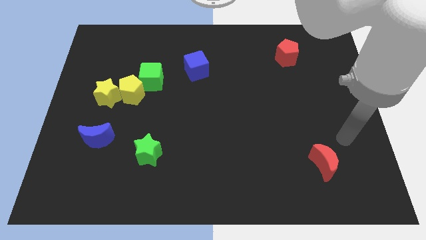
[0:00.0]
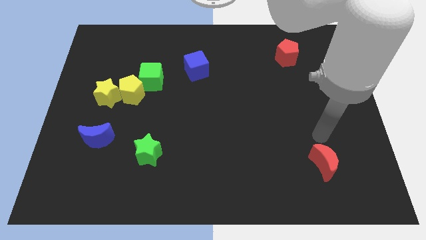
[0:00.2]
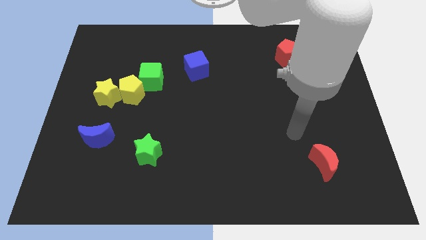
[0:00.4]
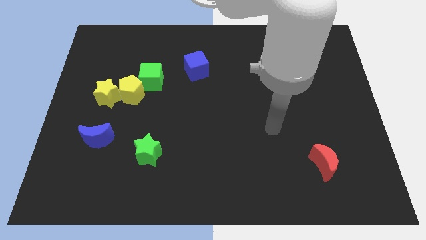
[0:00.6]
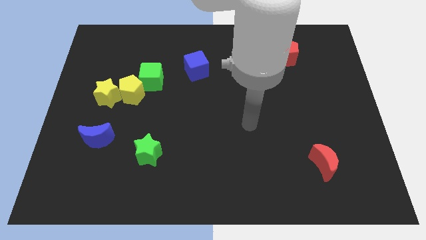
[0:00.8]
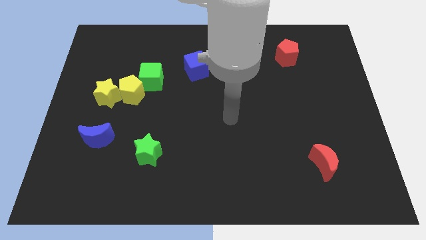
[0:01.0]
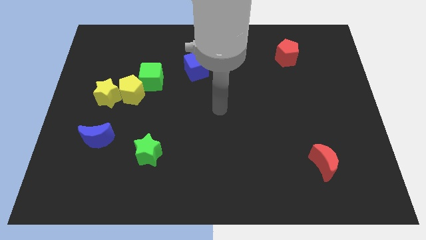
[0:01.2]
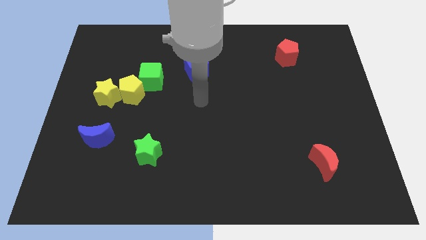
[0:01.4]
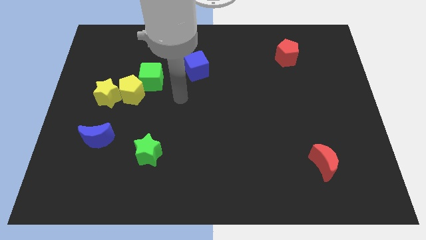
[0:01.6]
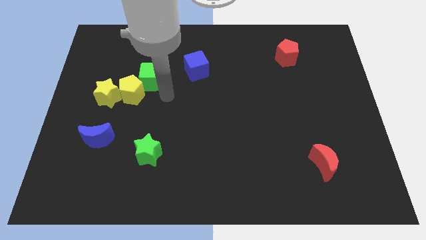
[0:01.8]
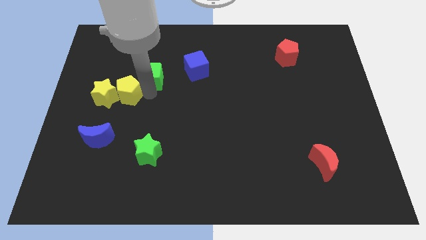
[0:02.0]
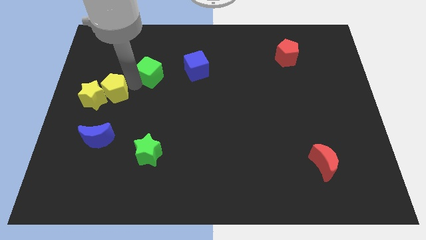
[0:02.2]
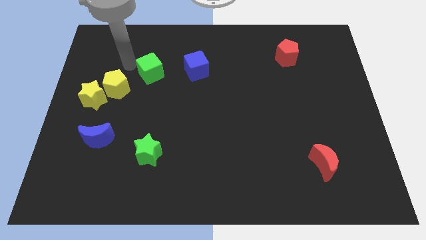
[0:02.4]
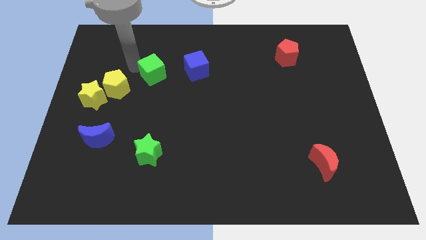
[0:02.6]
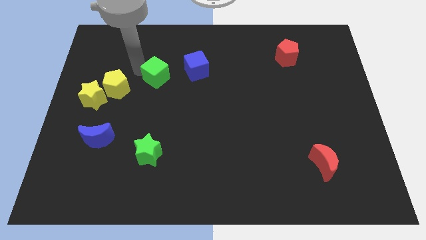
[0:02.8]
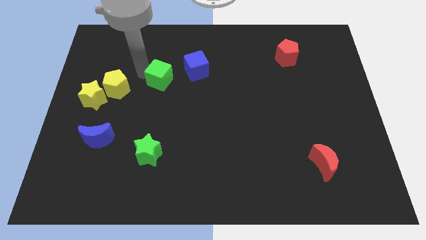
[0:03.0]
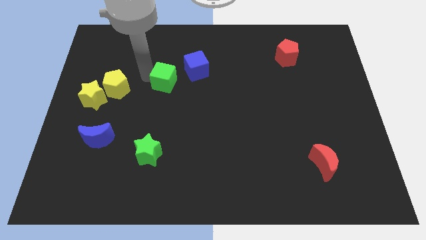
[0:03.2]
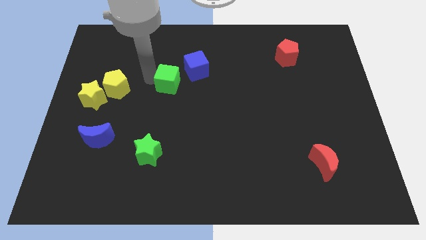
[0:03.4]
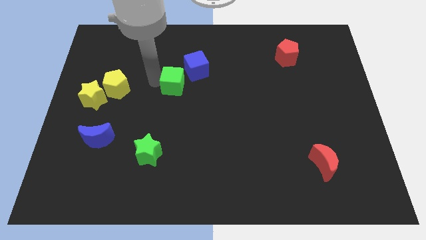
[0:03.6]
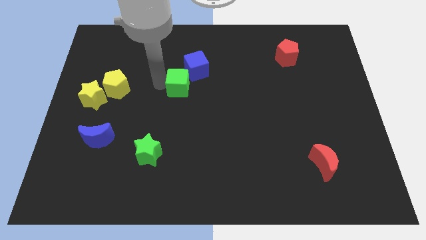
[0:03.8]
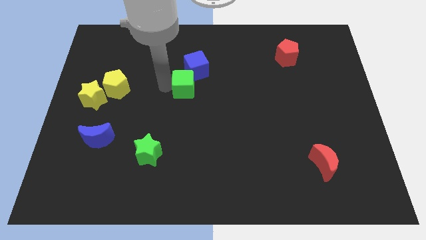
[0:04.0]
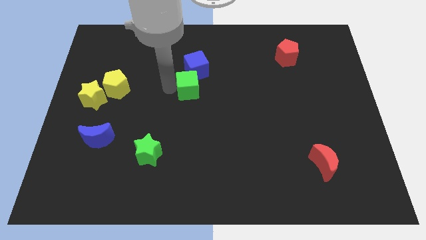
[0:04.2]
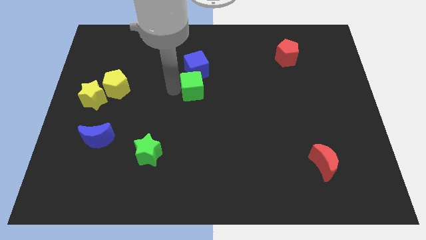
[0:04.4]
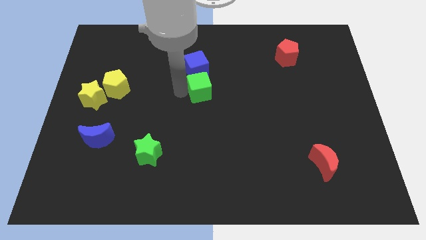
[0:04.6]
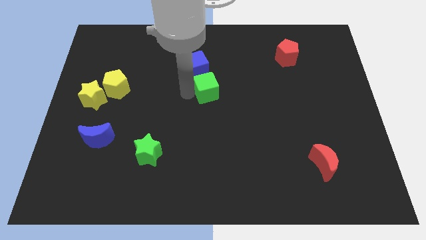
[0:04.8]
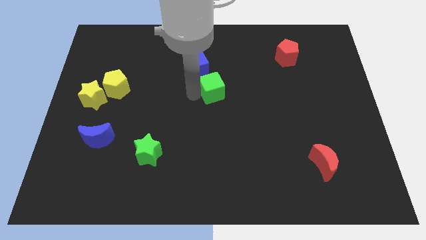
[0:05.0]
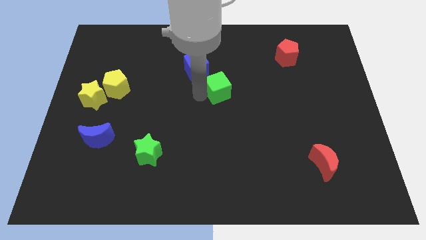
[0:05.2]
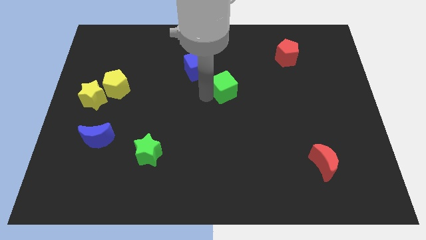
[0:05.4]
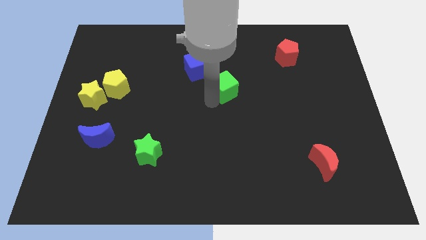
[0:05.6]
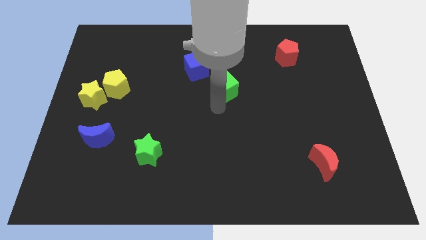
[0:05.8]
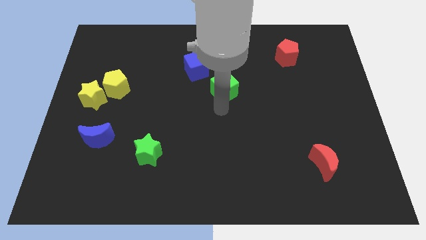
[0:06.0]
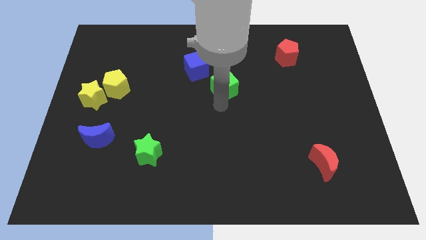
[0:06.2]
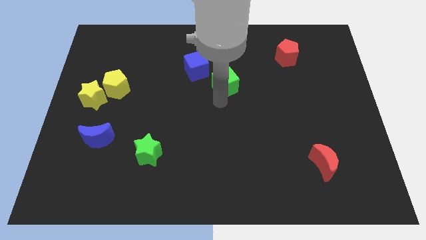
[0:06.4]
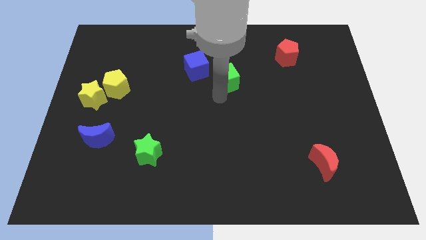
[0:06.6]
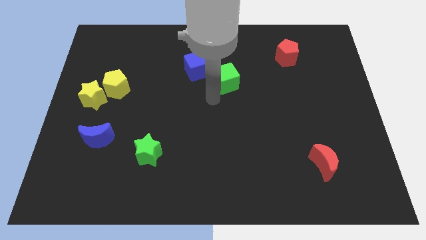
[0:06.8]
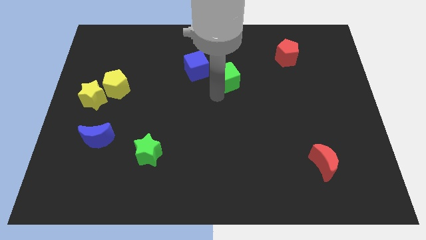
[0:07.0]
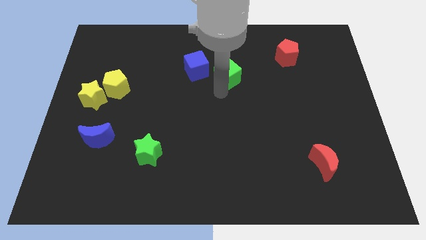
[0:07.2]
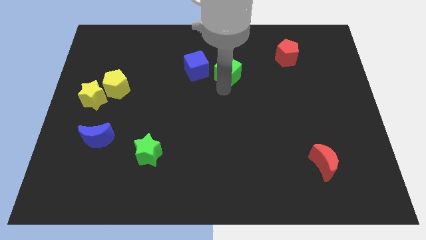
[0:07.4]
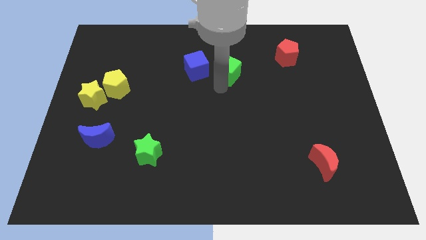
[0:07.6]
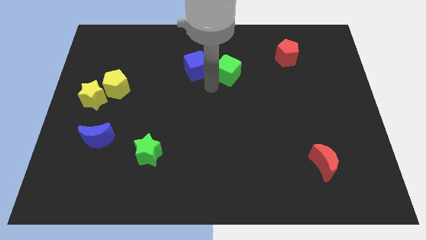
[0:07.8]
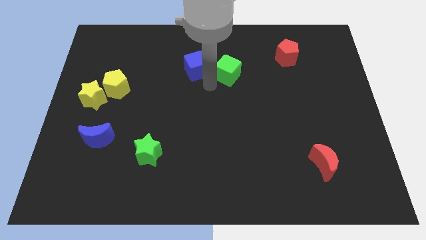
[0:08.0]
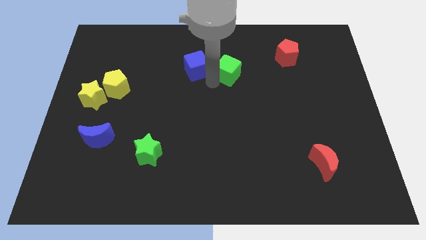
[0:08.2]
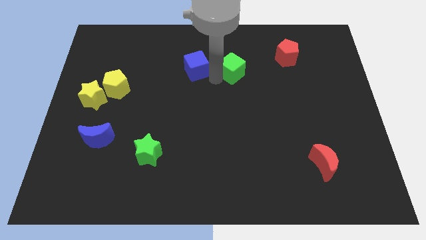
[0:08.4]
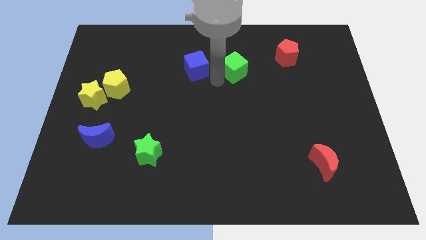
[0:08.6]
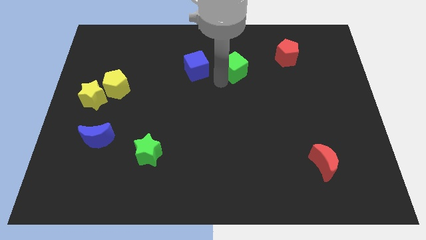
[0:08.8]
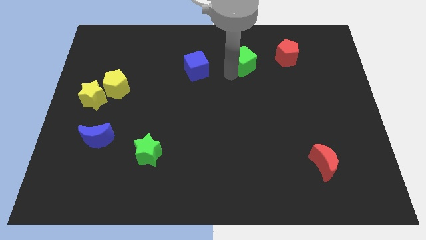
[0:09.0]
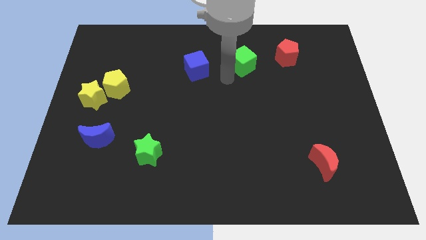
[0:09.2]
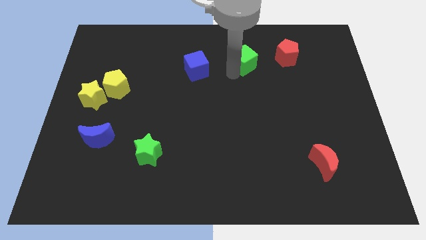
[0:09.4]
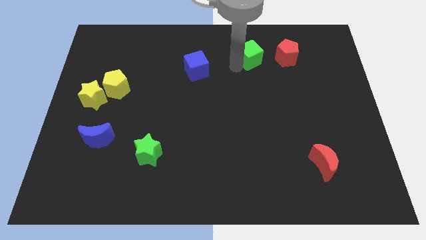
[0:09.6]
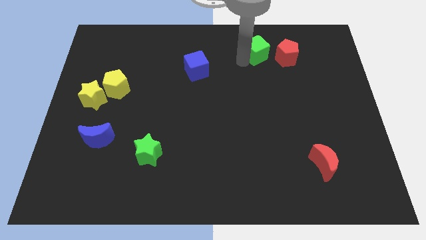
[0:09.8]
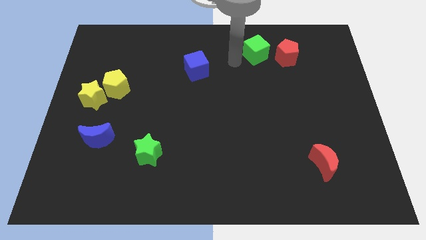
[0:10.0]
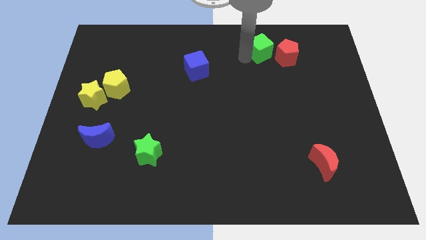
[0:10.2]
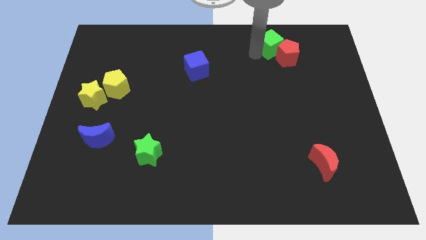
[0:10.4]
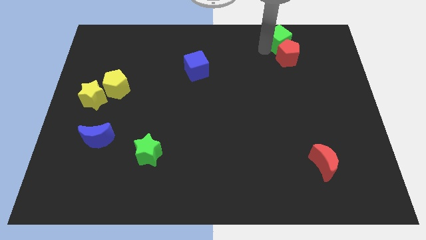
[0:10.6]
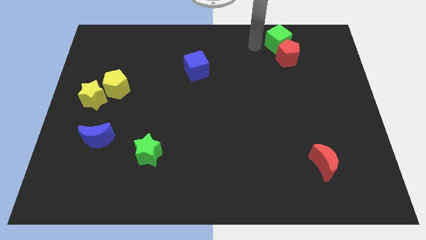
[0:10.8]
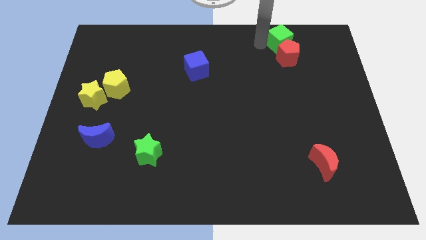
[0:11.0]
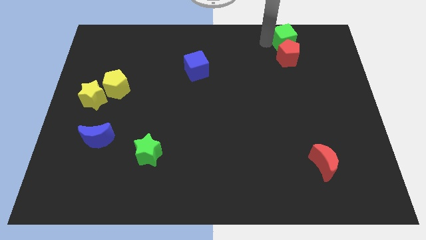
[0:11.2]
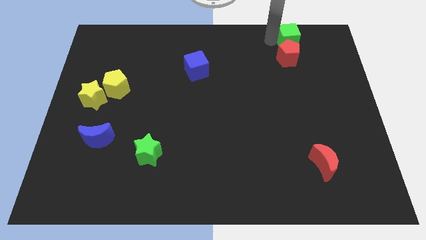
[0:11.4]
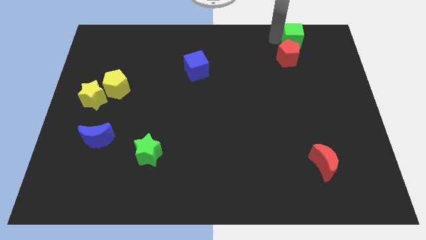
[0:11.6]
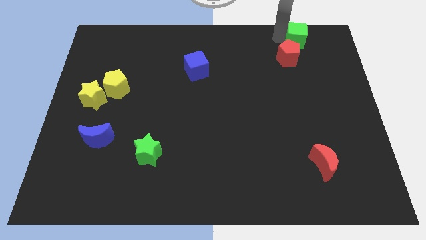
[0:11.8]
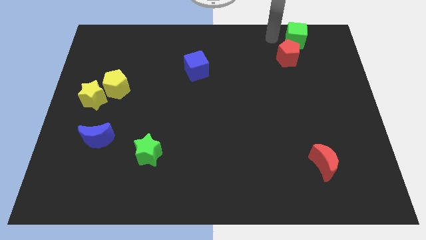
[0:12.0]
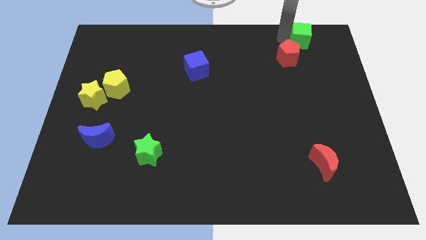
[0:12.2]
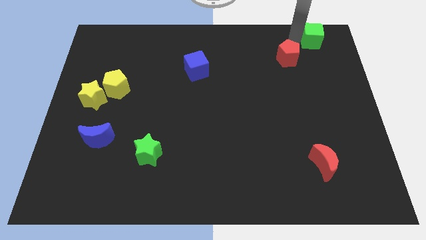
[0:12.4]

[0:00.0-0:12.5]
slide the green cube to the top right of the board

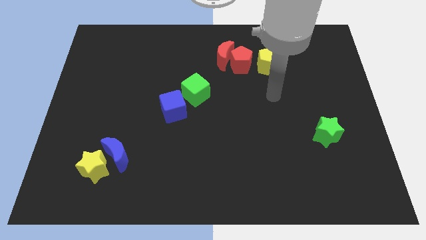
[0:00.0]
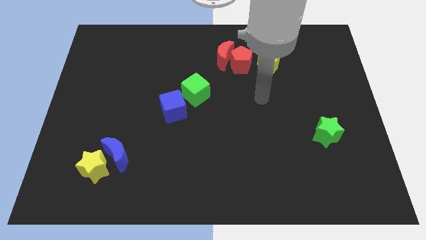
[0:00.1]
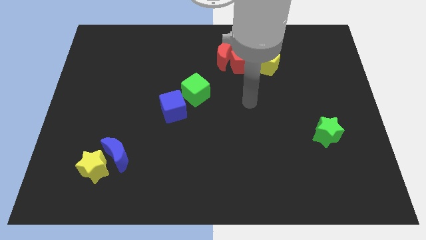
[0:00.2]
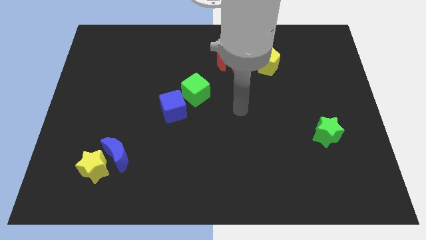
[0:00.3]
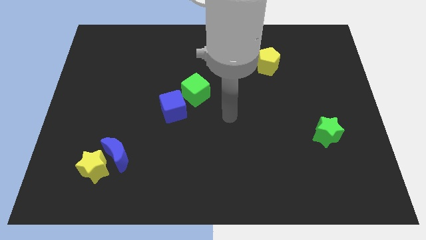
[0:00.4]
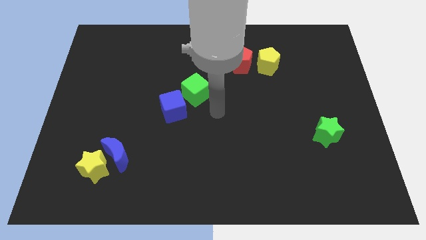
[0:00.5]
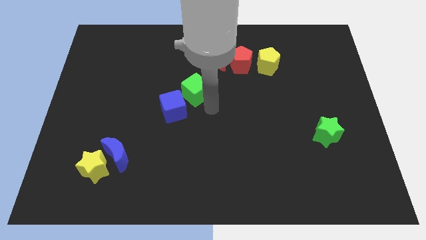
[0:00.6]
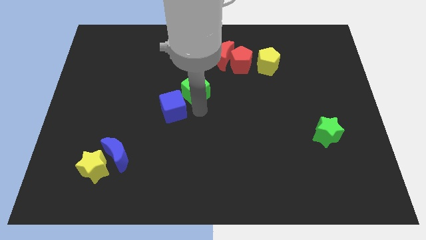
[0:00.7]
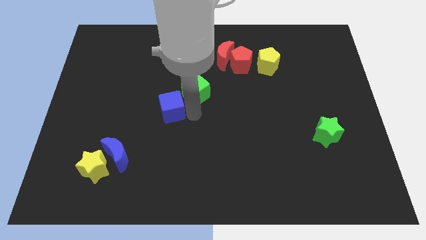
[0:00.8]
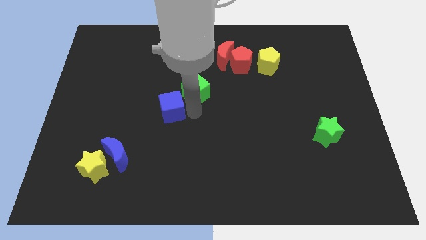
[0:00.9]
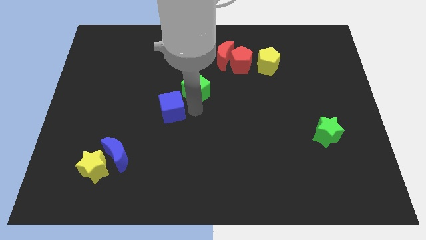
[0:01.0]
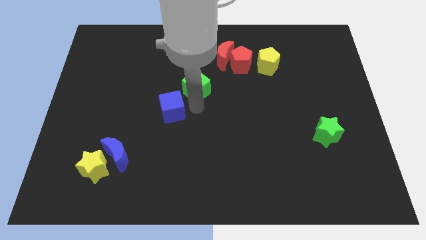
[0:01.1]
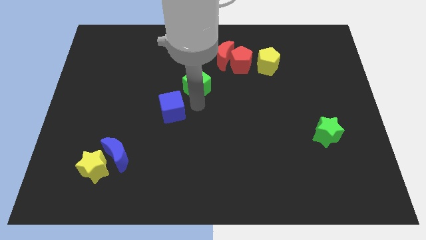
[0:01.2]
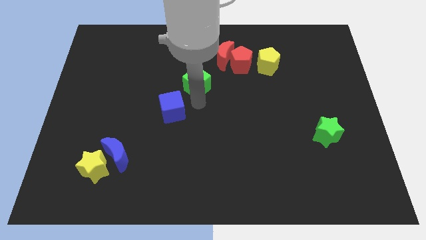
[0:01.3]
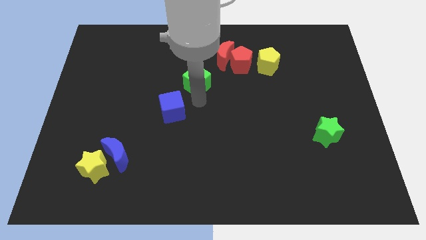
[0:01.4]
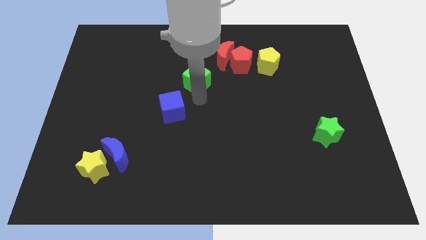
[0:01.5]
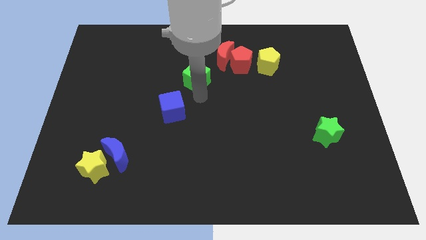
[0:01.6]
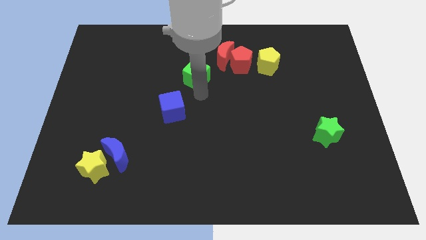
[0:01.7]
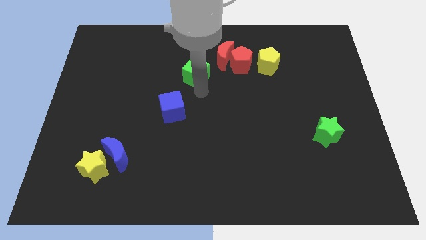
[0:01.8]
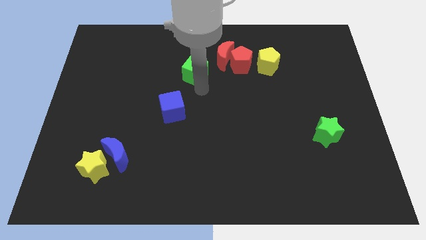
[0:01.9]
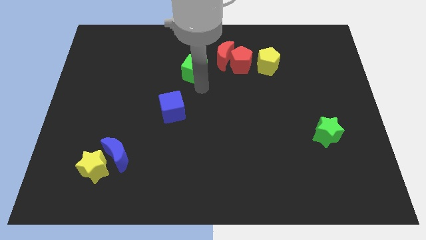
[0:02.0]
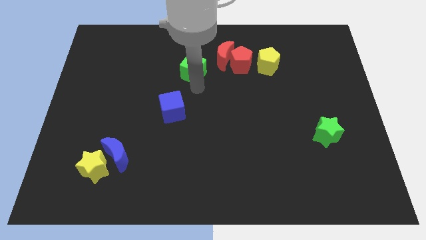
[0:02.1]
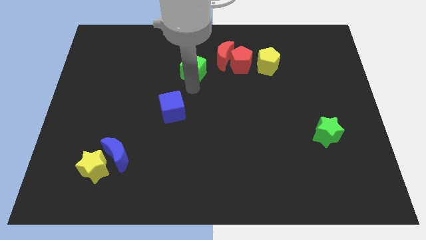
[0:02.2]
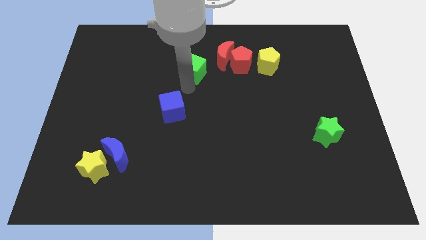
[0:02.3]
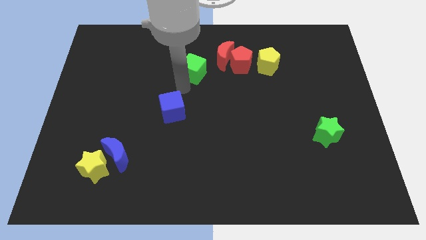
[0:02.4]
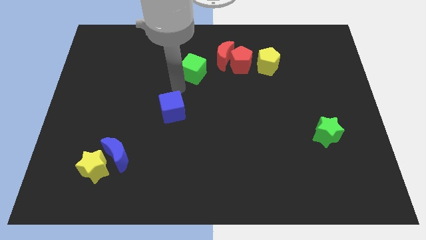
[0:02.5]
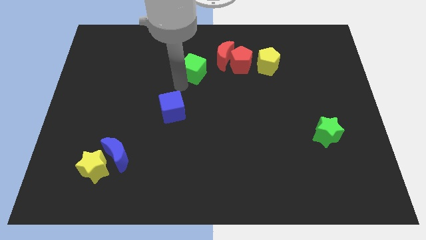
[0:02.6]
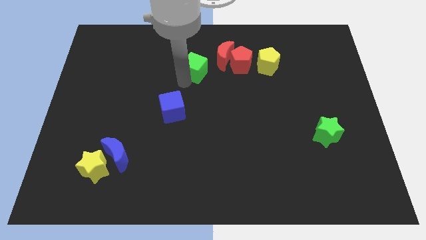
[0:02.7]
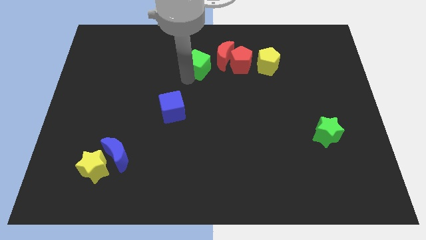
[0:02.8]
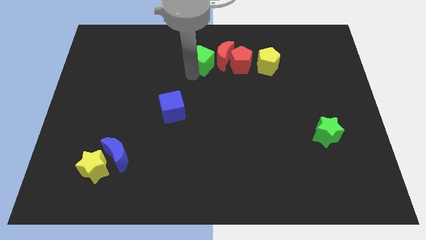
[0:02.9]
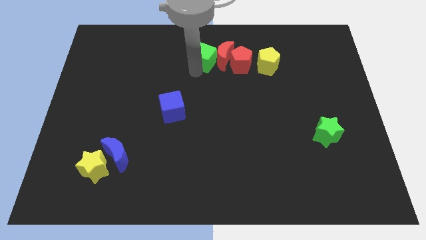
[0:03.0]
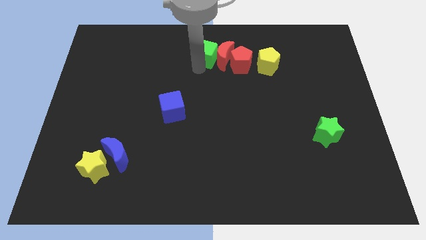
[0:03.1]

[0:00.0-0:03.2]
slide the green cube to the top
